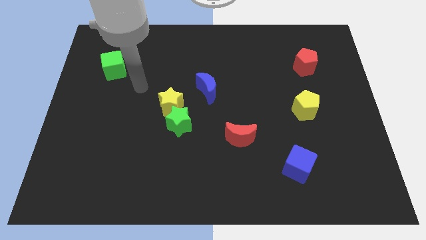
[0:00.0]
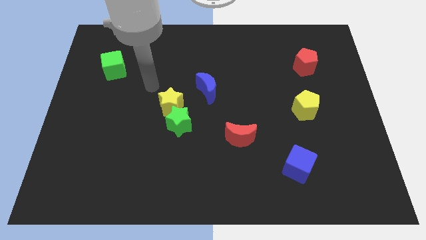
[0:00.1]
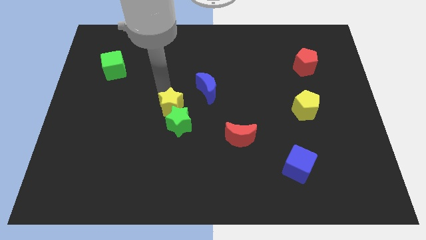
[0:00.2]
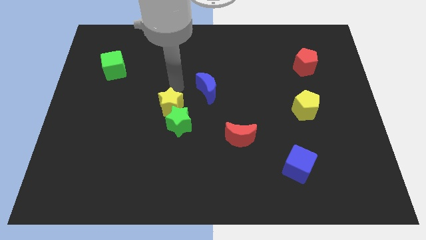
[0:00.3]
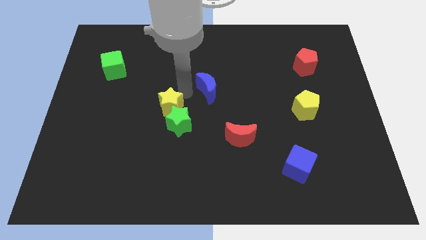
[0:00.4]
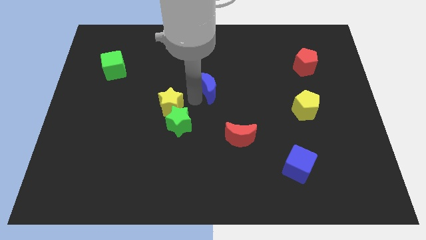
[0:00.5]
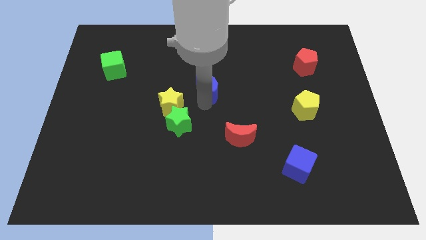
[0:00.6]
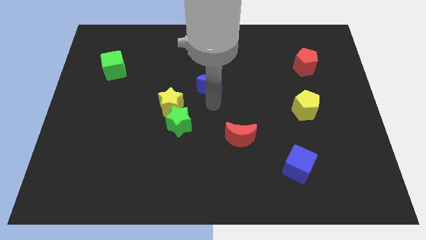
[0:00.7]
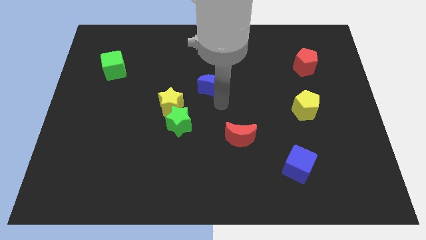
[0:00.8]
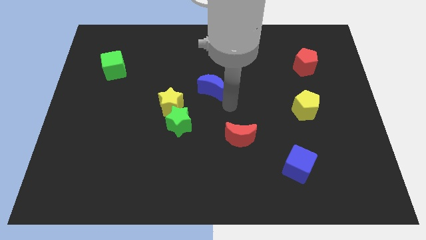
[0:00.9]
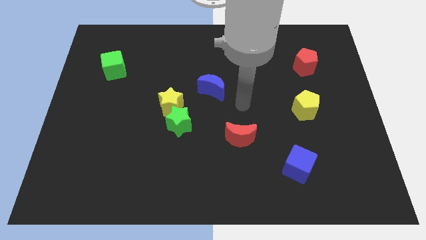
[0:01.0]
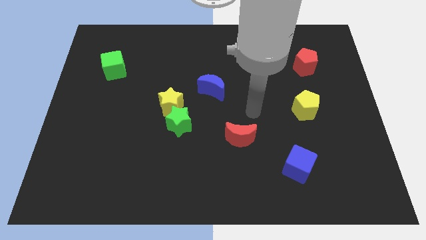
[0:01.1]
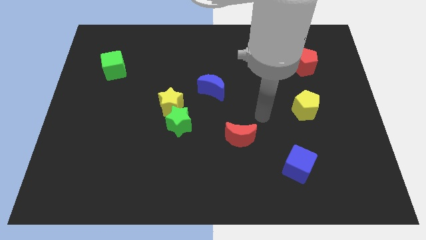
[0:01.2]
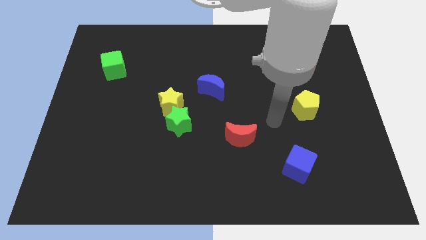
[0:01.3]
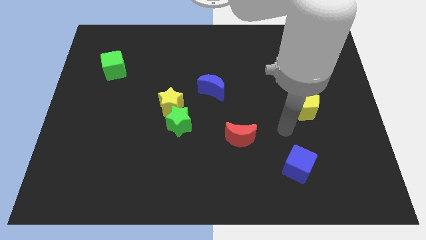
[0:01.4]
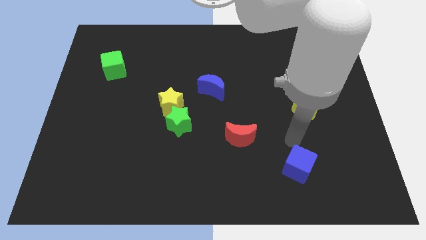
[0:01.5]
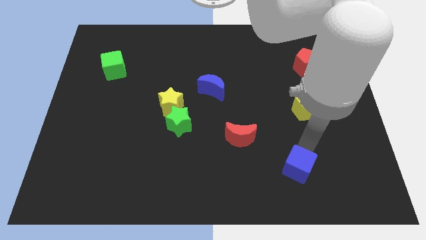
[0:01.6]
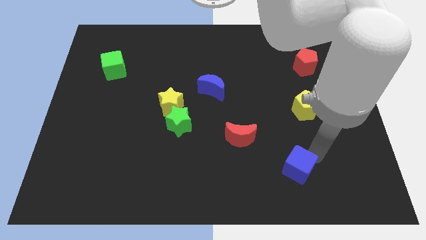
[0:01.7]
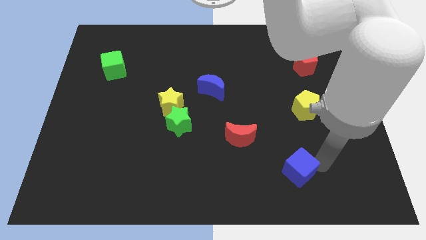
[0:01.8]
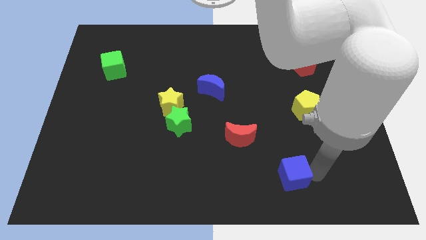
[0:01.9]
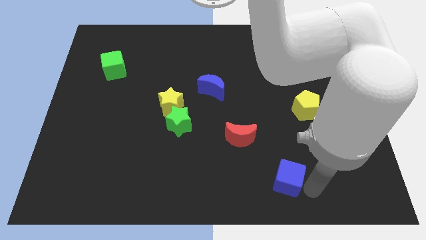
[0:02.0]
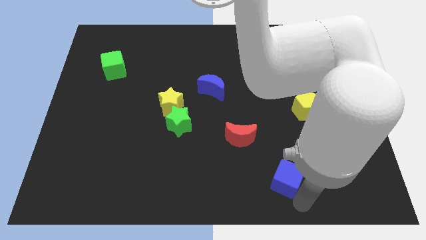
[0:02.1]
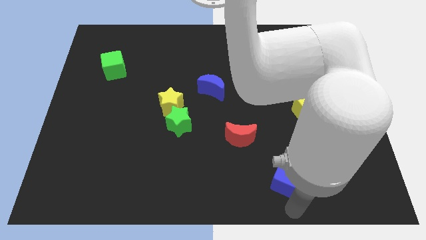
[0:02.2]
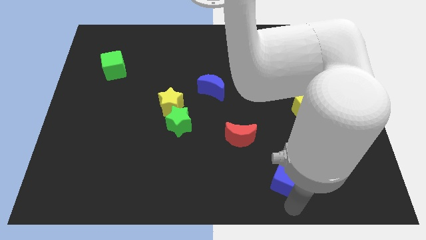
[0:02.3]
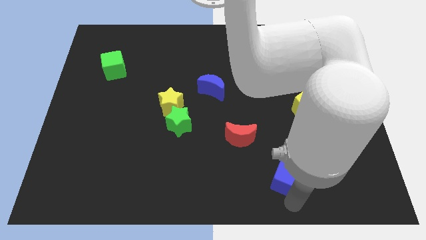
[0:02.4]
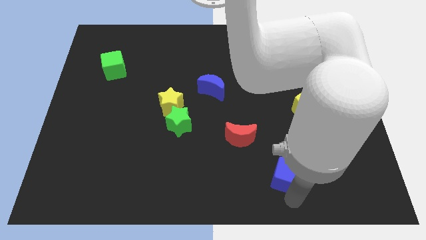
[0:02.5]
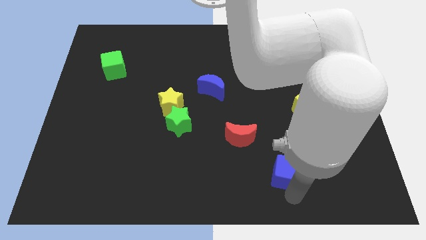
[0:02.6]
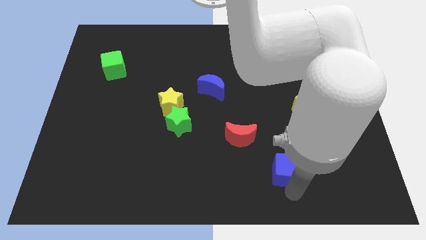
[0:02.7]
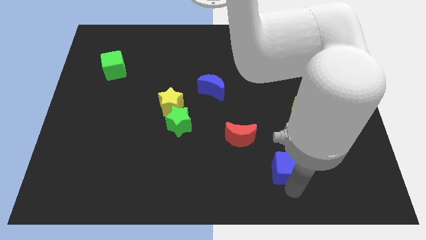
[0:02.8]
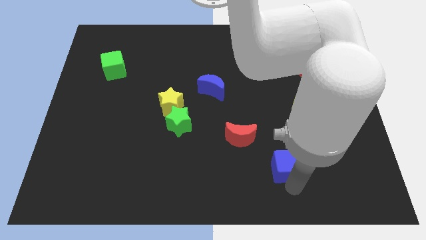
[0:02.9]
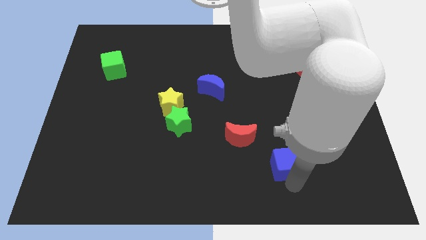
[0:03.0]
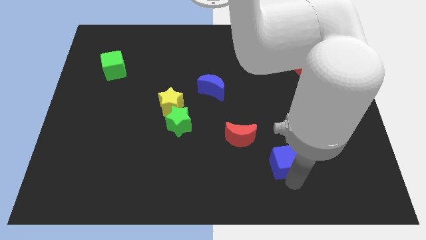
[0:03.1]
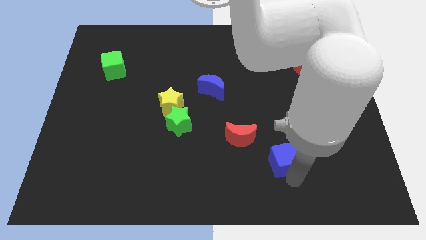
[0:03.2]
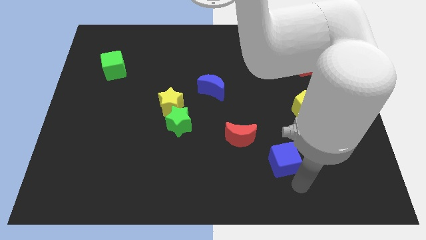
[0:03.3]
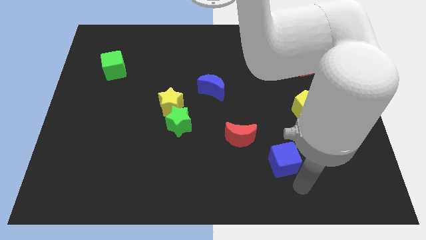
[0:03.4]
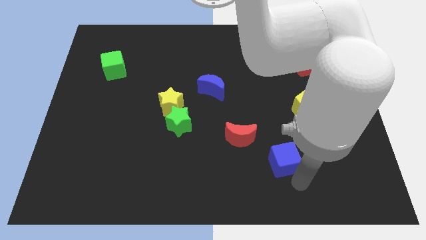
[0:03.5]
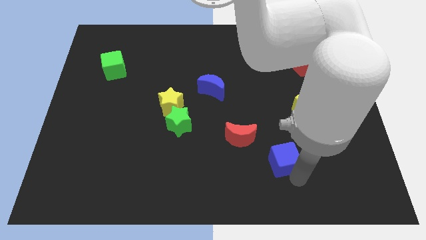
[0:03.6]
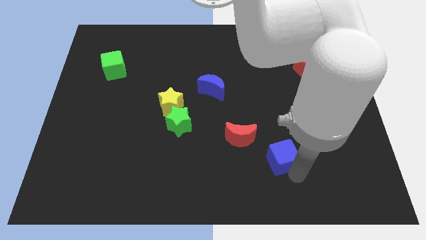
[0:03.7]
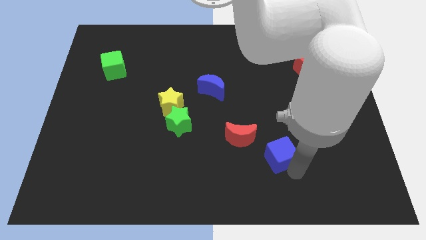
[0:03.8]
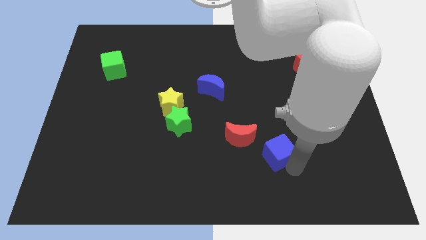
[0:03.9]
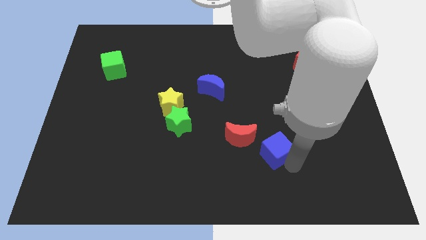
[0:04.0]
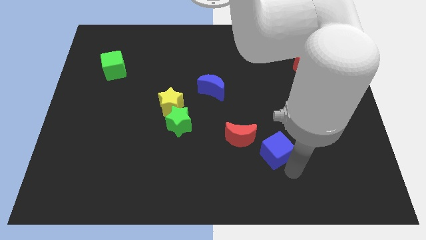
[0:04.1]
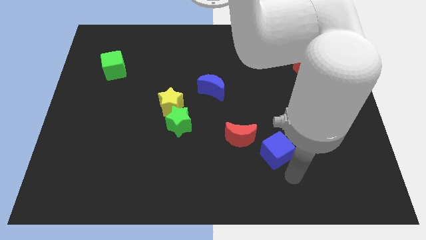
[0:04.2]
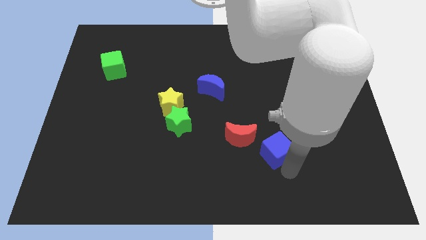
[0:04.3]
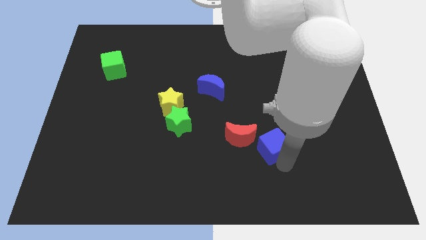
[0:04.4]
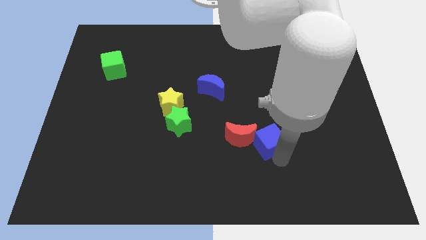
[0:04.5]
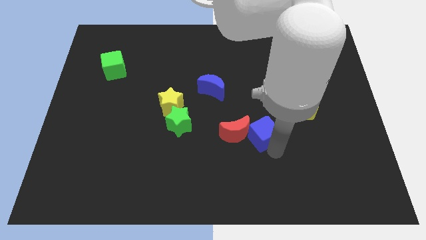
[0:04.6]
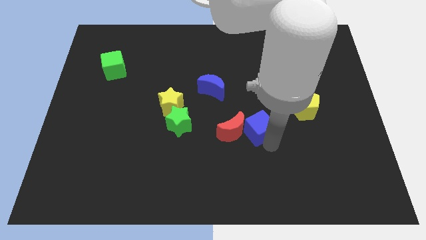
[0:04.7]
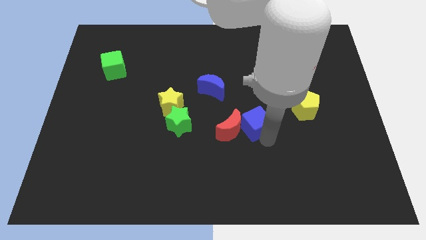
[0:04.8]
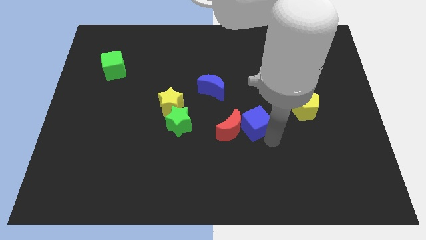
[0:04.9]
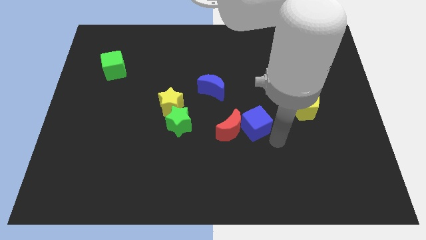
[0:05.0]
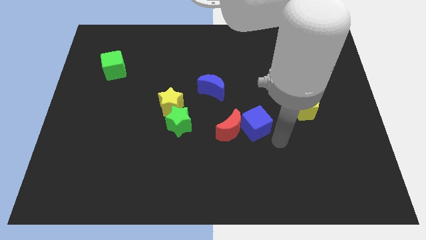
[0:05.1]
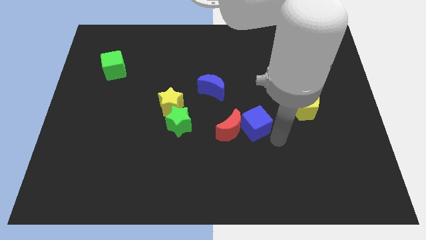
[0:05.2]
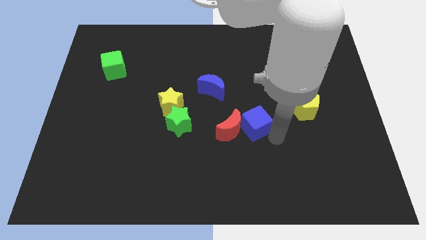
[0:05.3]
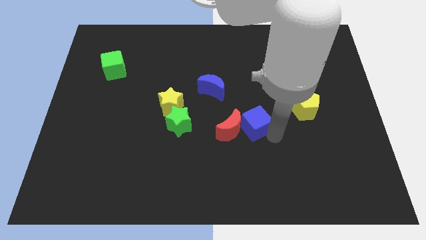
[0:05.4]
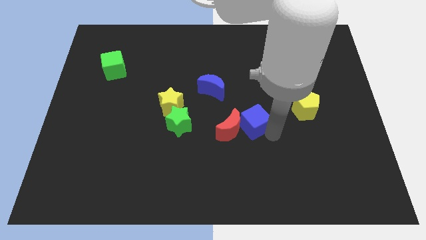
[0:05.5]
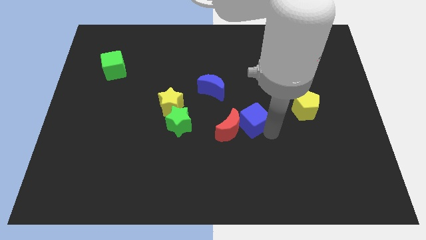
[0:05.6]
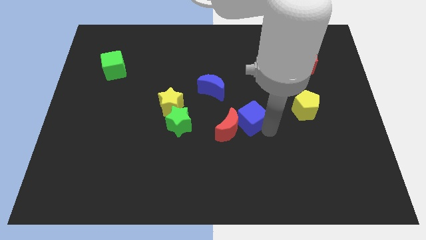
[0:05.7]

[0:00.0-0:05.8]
push the blue cube to the bottom right of the blue moon

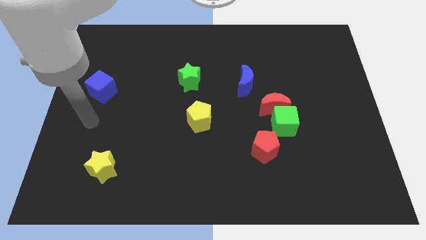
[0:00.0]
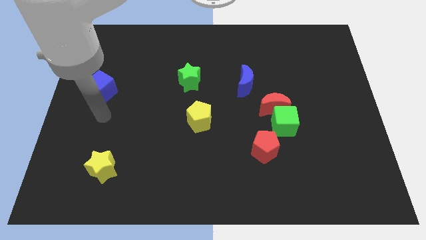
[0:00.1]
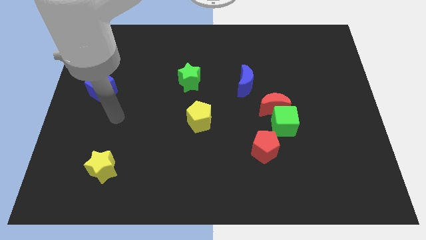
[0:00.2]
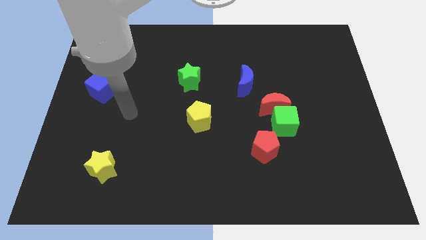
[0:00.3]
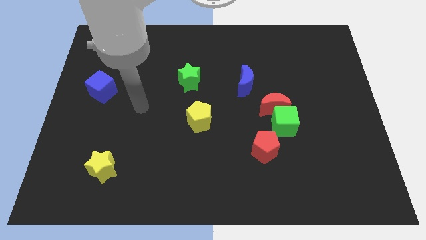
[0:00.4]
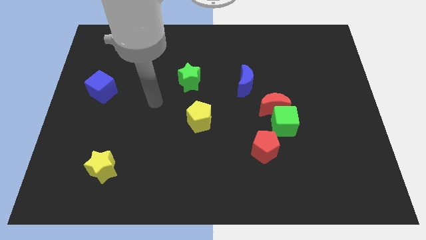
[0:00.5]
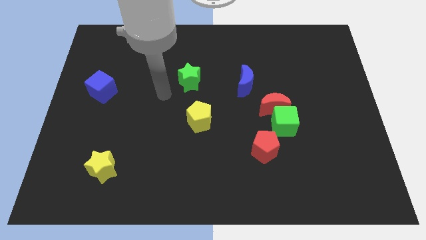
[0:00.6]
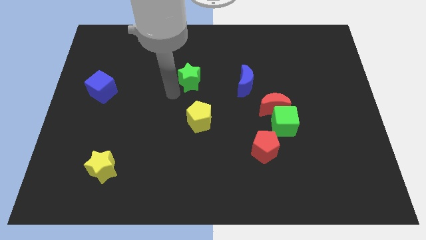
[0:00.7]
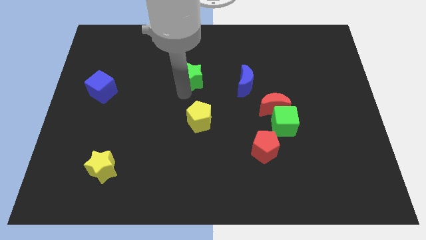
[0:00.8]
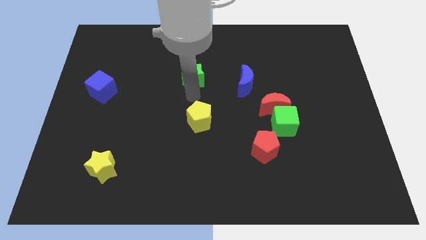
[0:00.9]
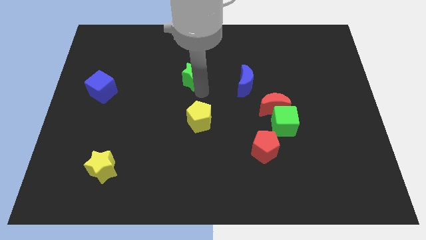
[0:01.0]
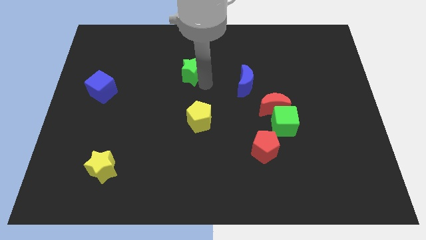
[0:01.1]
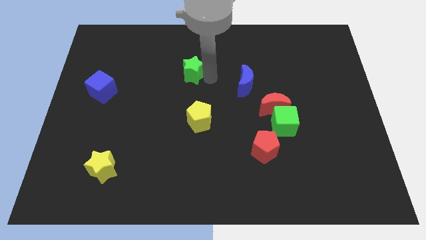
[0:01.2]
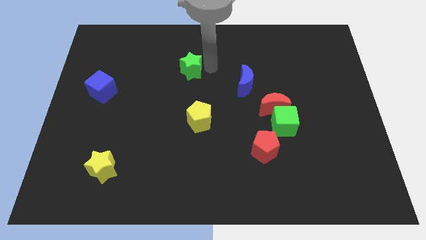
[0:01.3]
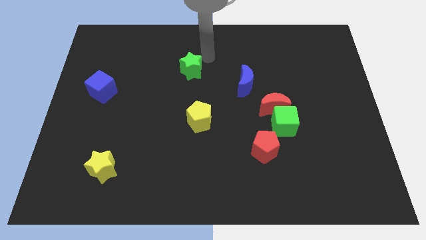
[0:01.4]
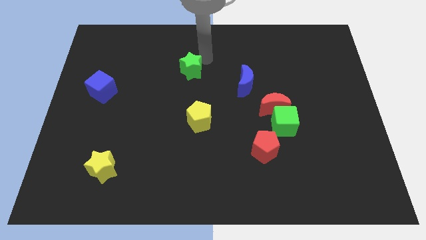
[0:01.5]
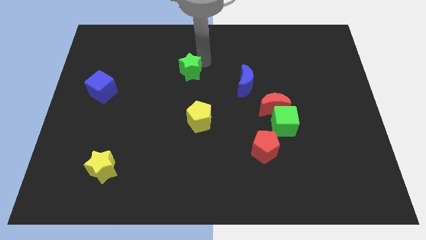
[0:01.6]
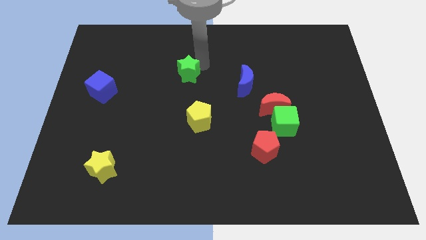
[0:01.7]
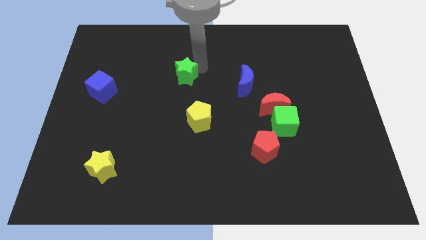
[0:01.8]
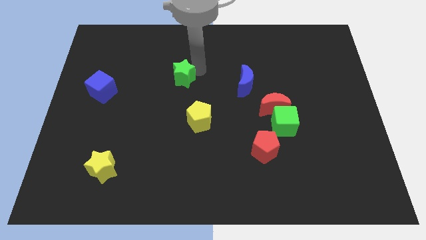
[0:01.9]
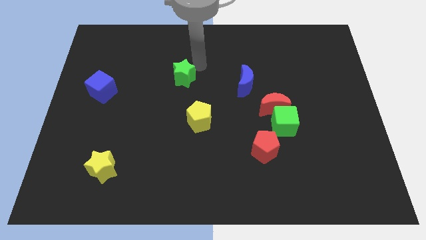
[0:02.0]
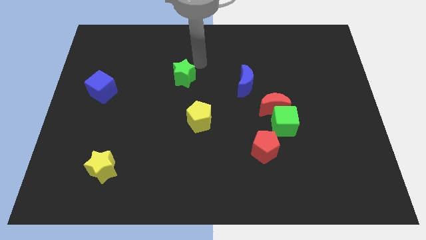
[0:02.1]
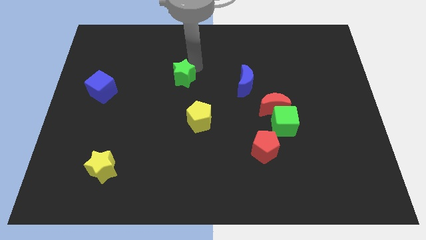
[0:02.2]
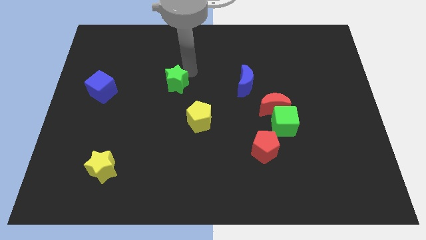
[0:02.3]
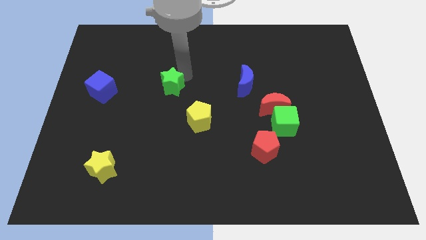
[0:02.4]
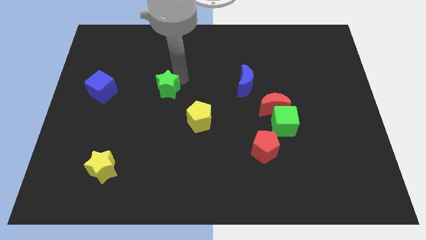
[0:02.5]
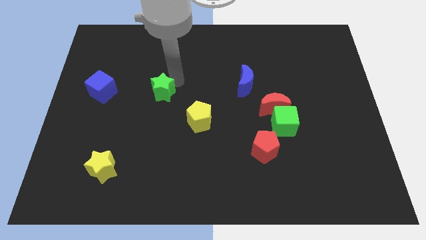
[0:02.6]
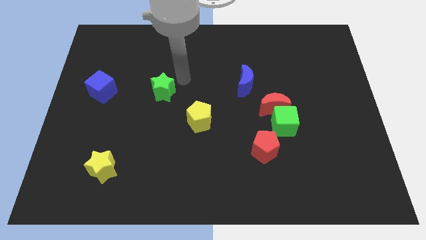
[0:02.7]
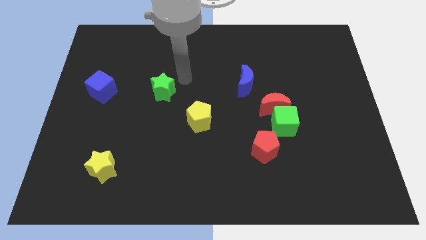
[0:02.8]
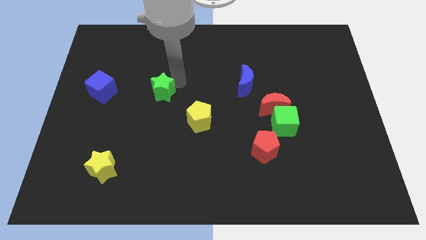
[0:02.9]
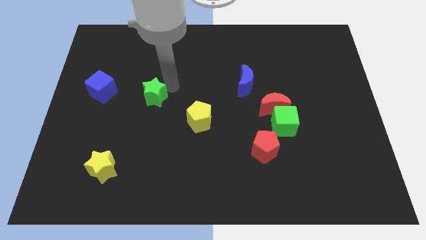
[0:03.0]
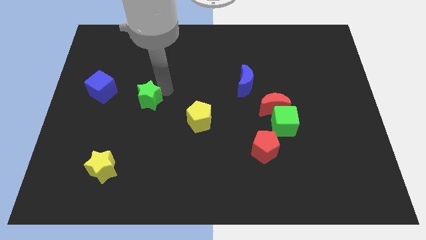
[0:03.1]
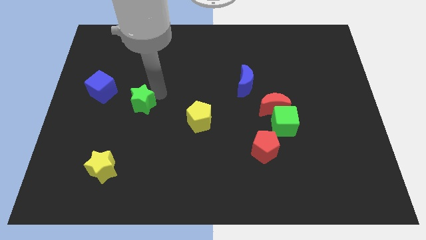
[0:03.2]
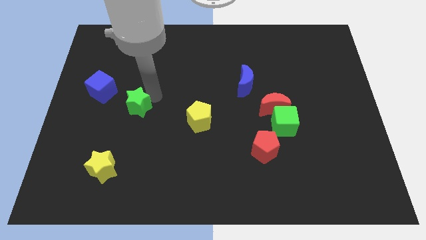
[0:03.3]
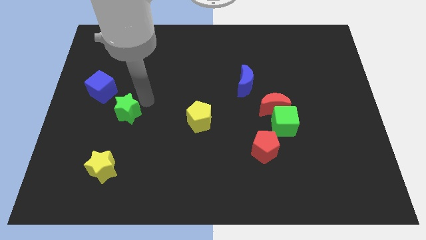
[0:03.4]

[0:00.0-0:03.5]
slide the green star above the yellow star
